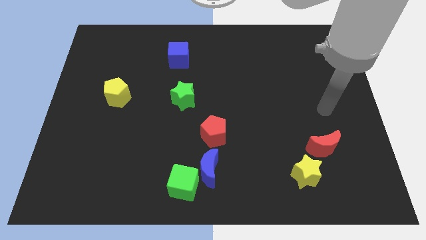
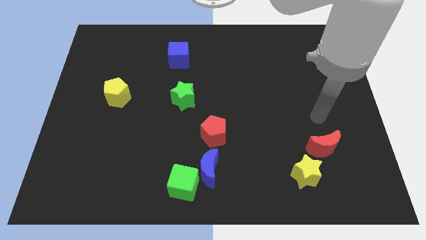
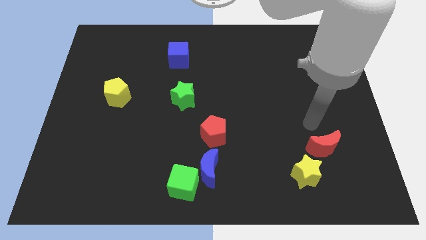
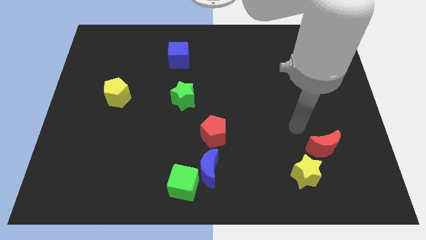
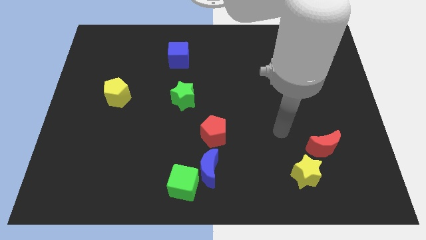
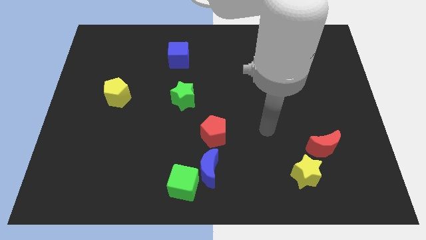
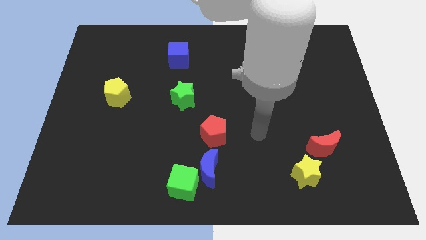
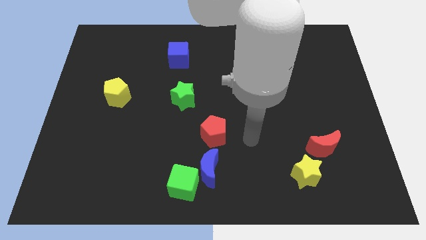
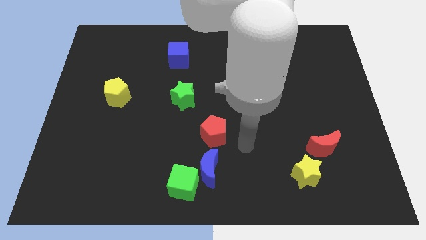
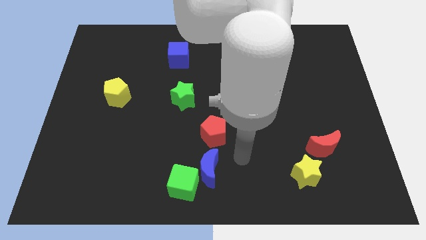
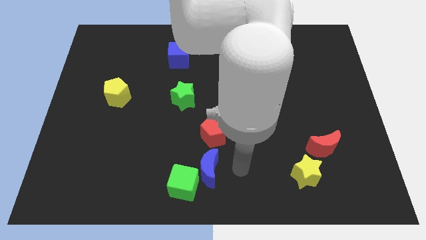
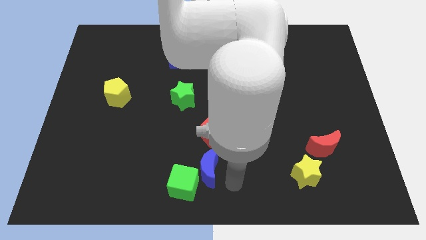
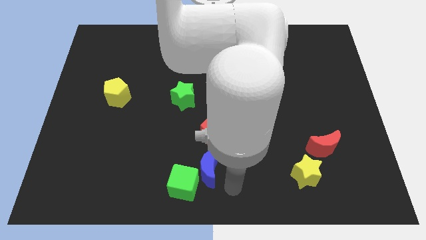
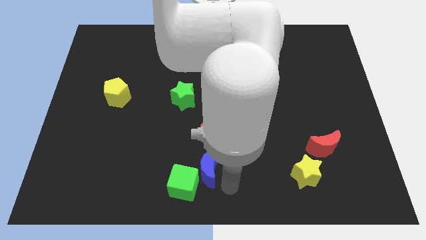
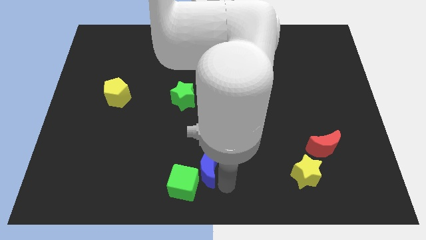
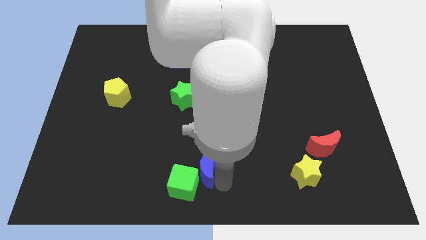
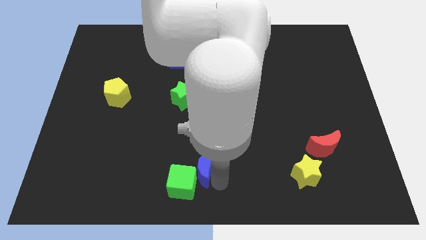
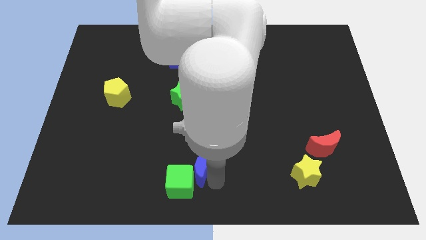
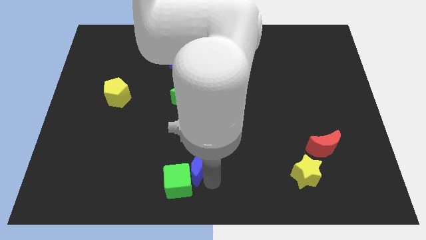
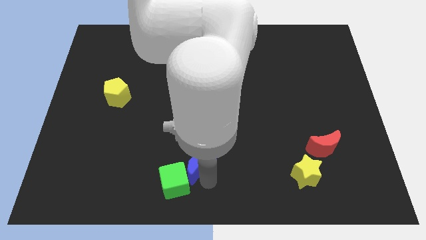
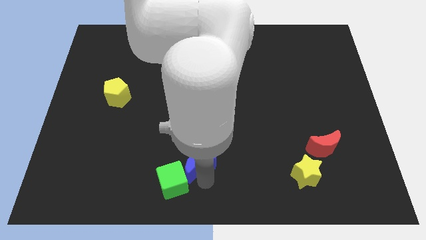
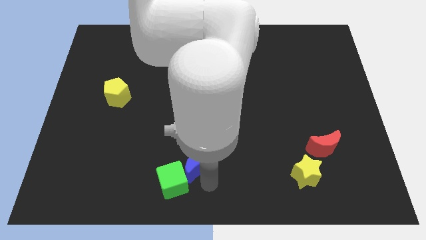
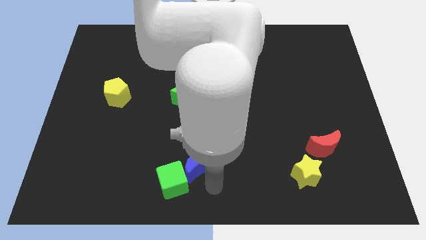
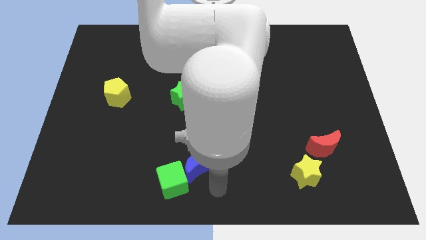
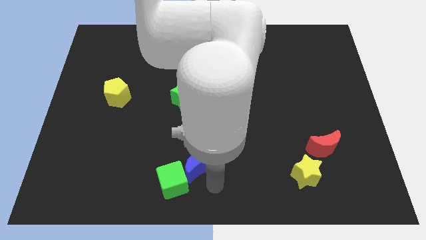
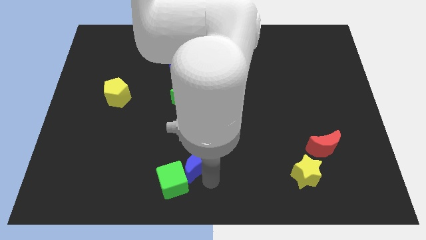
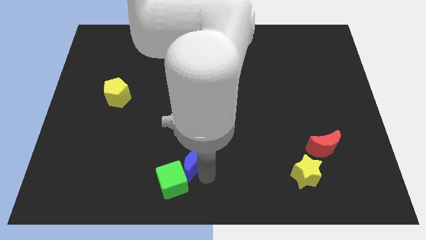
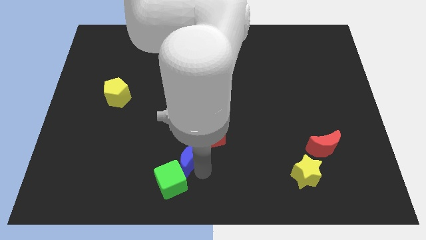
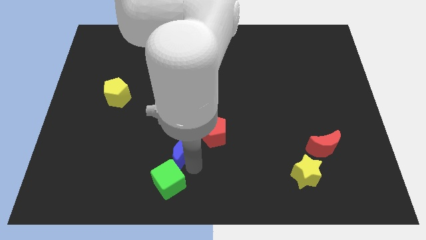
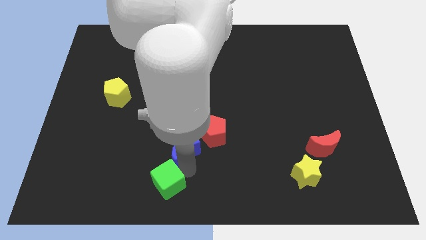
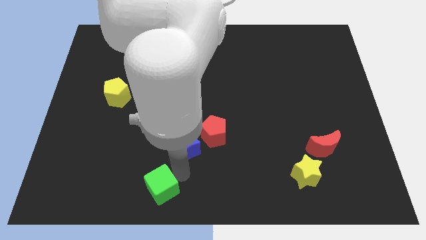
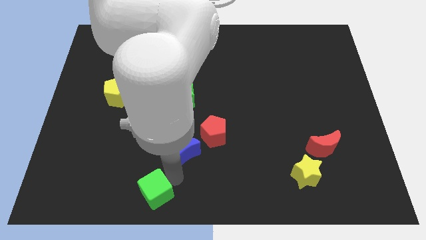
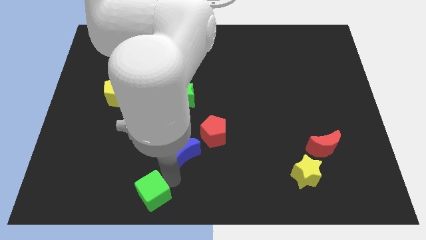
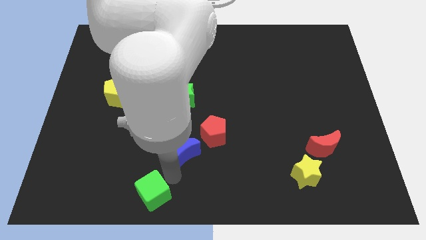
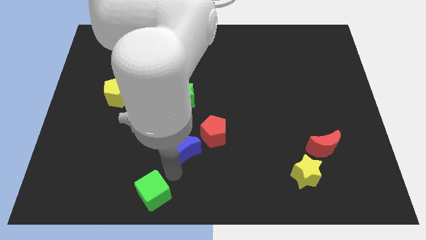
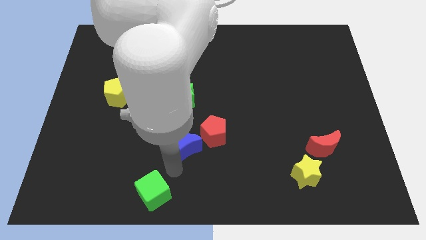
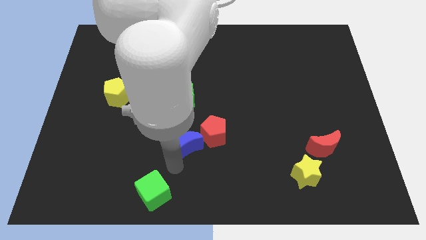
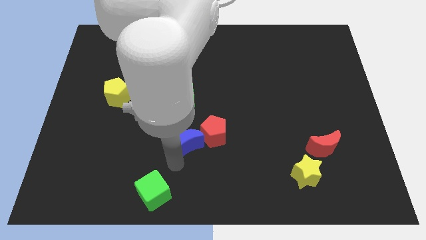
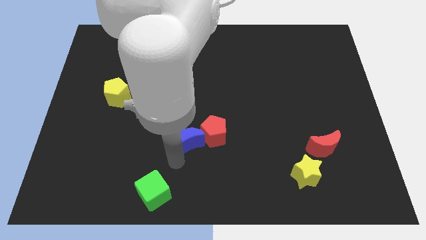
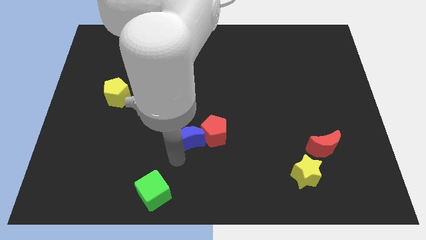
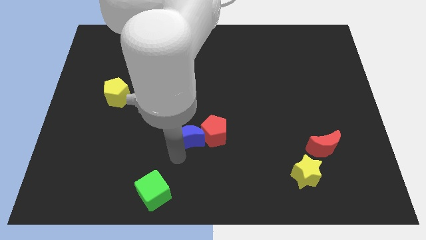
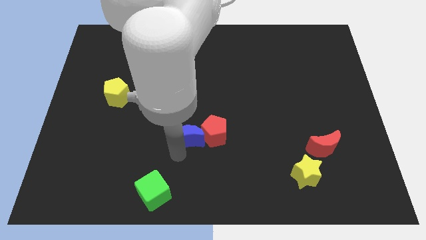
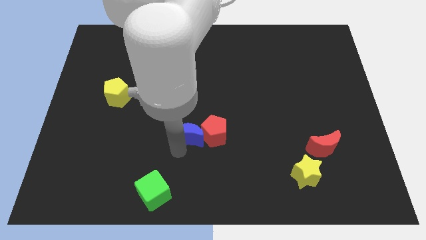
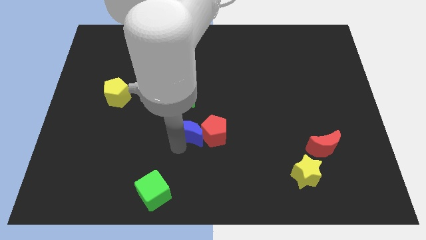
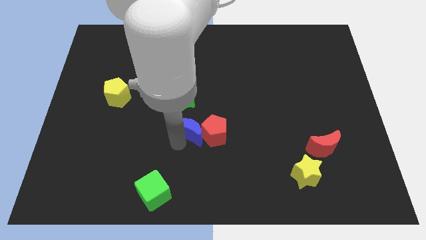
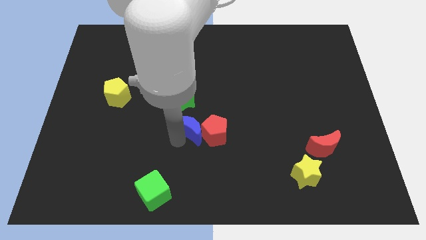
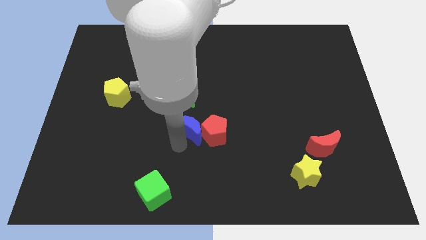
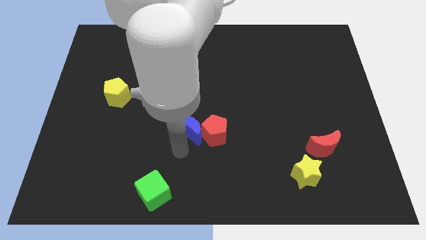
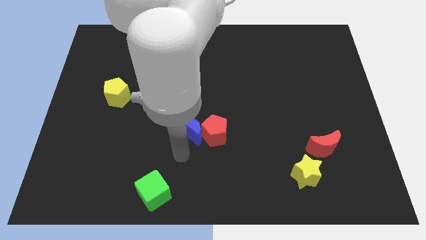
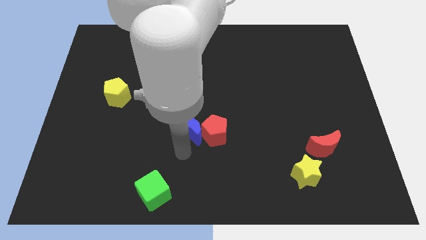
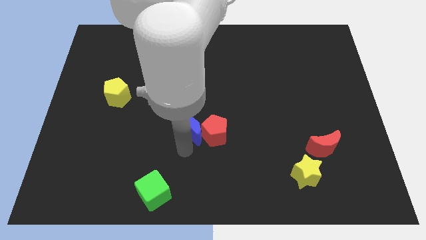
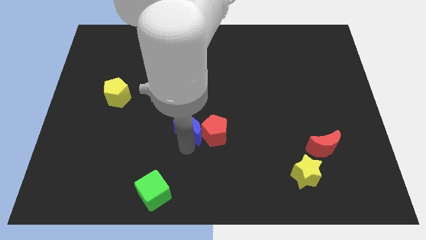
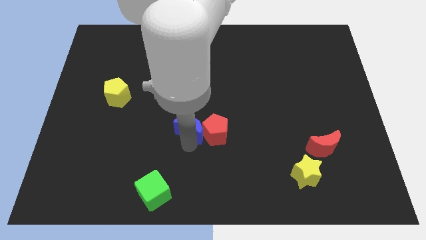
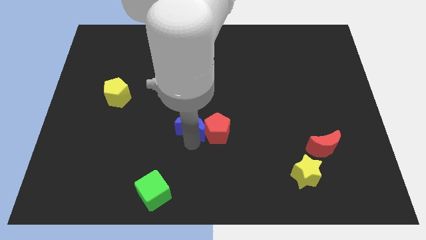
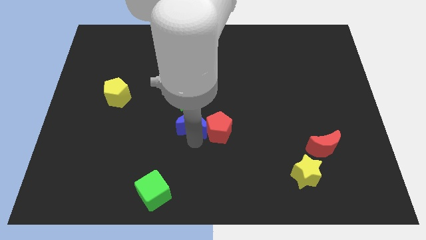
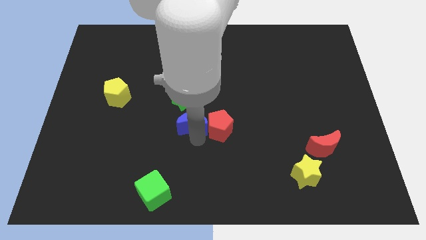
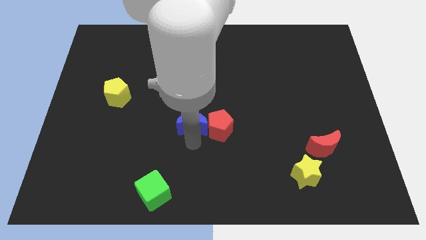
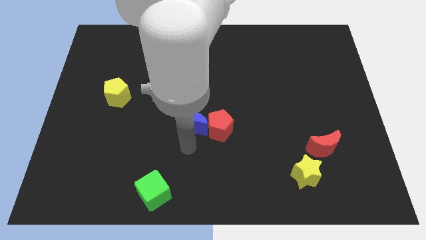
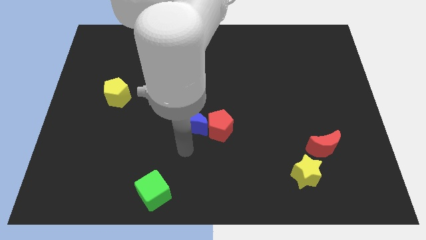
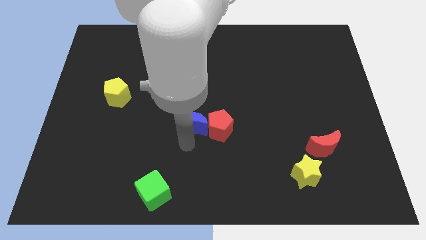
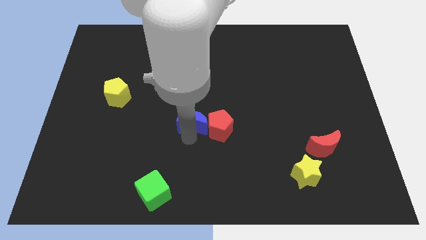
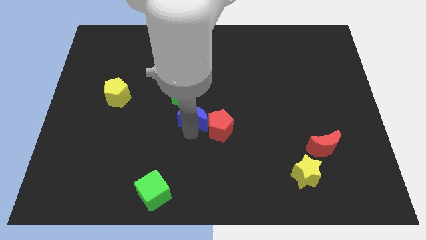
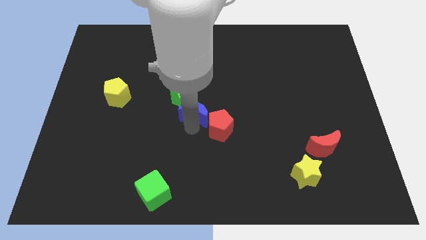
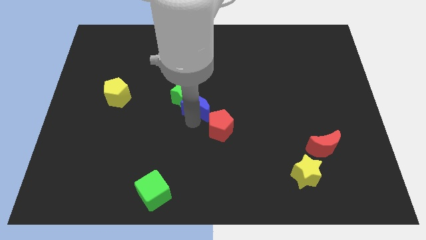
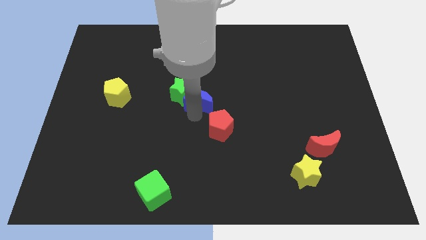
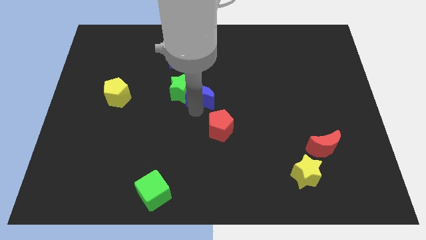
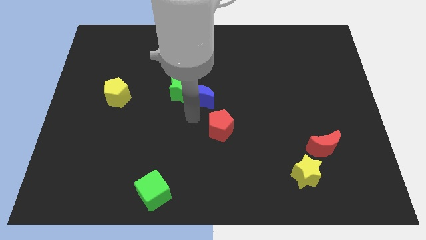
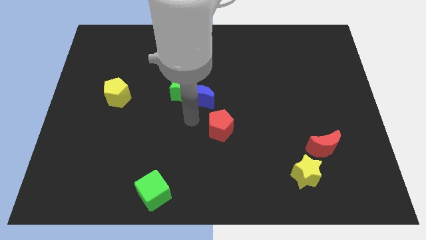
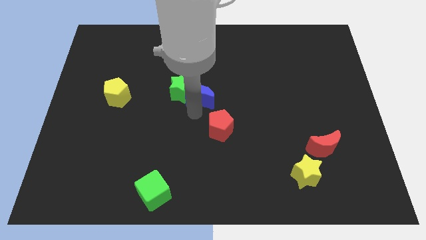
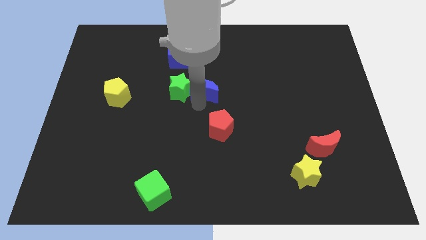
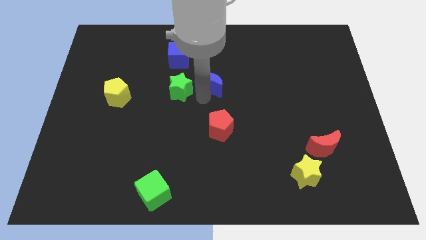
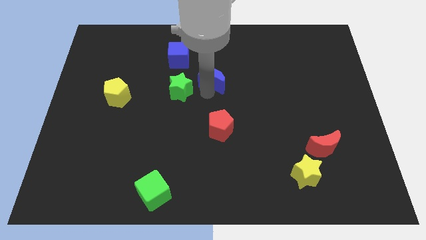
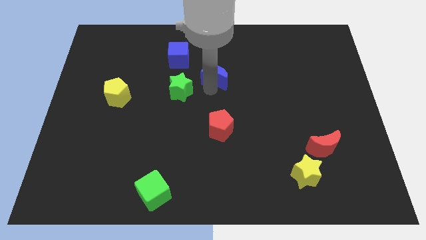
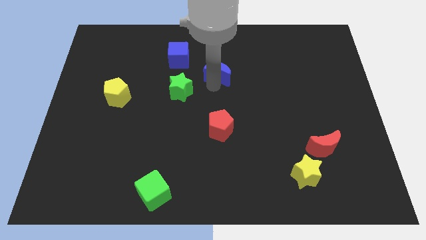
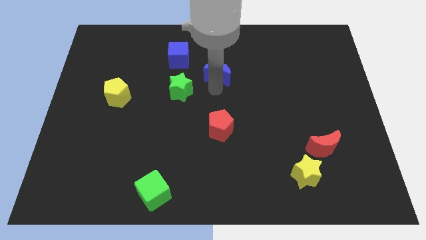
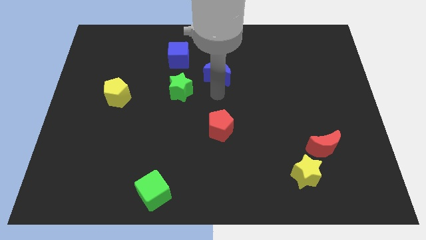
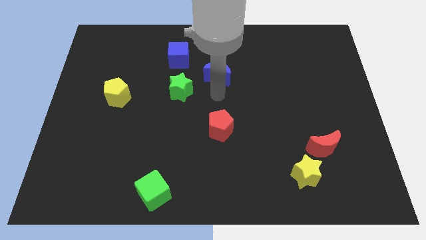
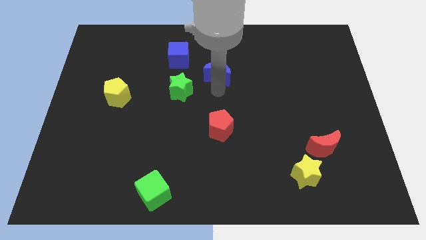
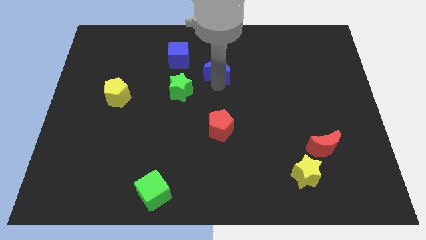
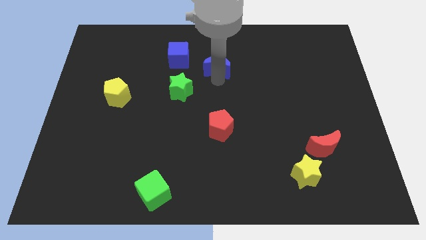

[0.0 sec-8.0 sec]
move the blue moon just right of the blue cube
